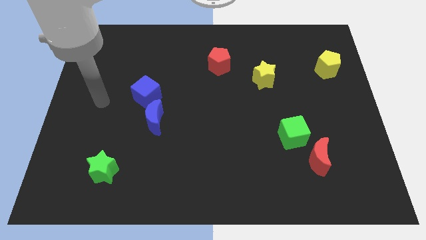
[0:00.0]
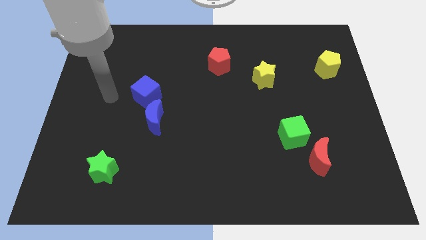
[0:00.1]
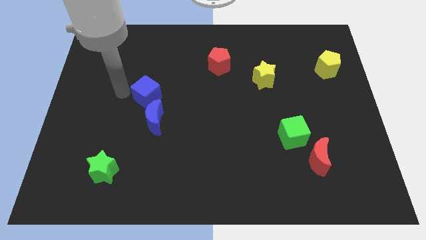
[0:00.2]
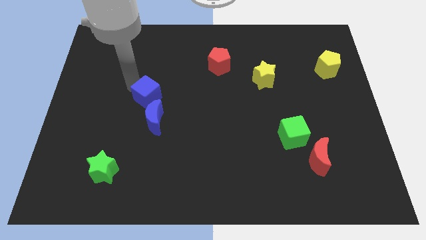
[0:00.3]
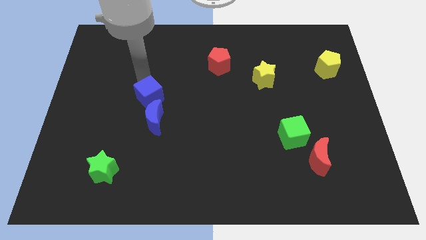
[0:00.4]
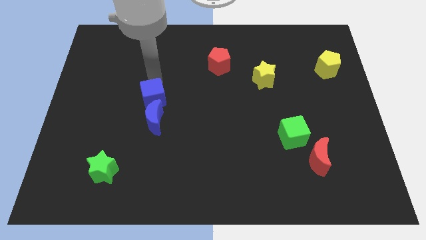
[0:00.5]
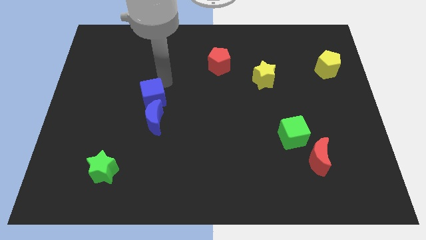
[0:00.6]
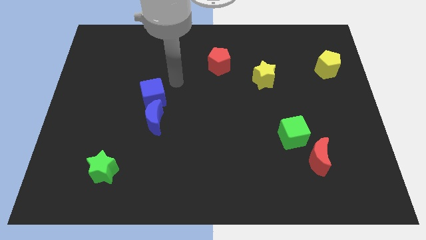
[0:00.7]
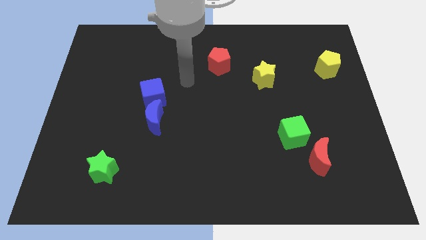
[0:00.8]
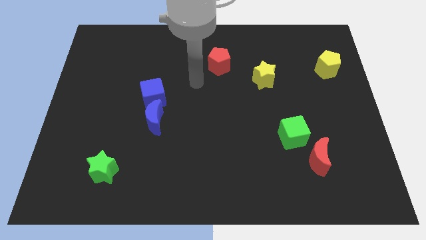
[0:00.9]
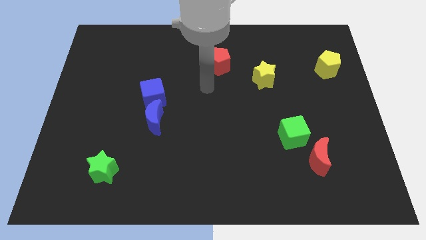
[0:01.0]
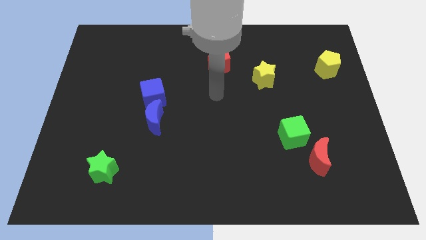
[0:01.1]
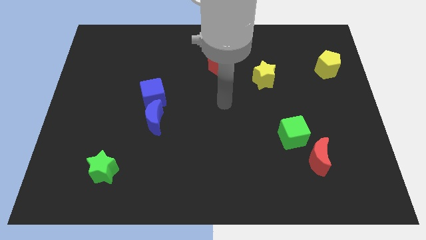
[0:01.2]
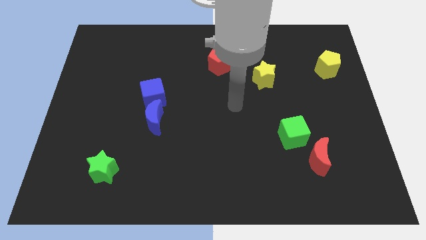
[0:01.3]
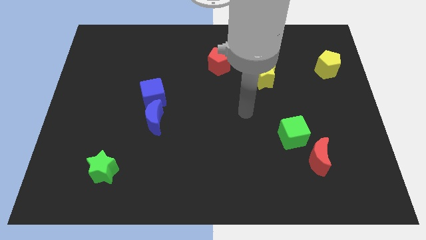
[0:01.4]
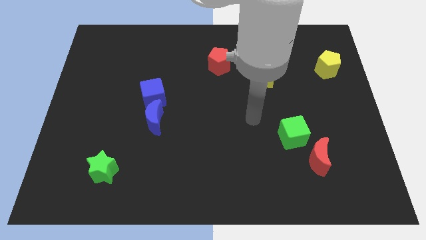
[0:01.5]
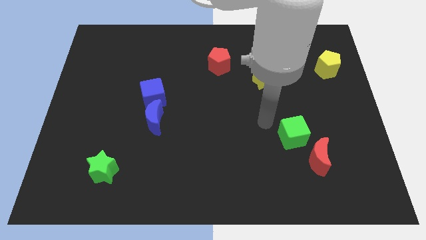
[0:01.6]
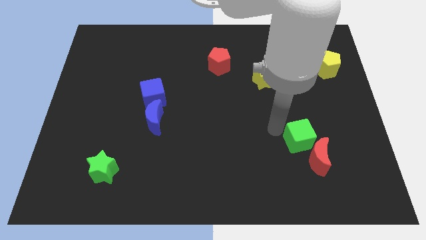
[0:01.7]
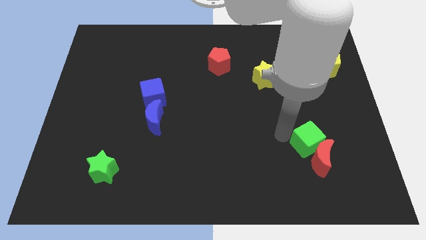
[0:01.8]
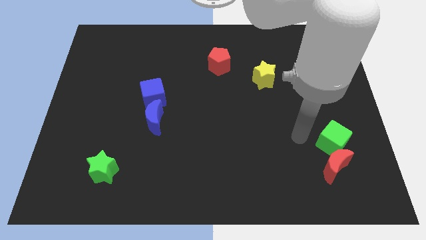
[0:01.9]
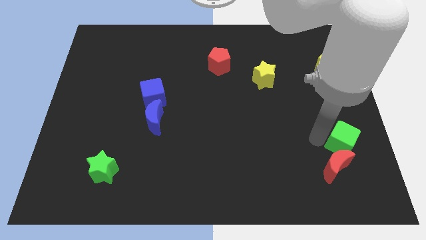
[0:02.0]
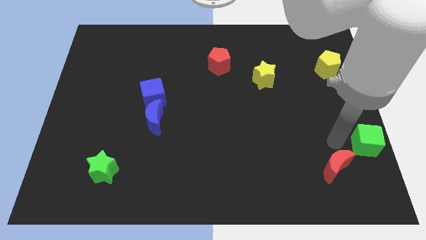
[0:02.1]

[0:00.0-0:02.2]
separate the red moon from the green cube

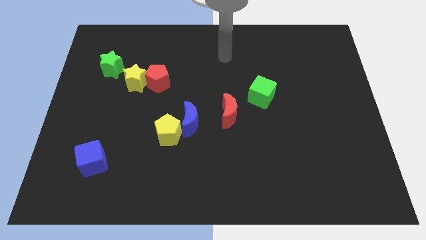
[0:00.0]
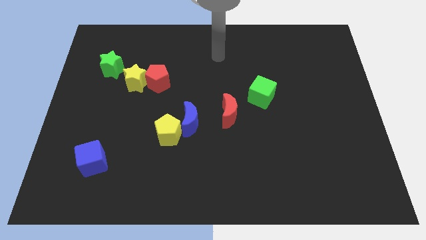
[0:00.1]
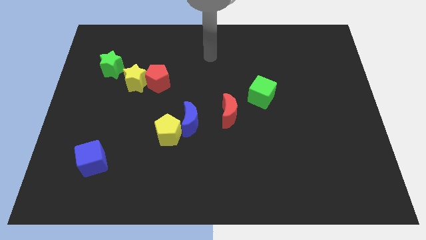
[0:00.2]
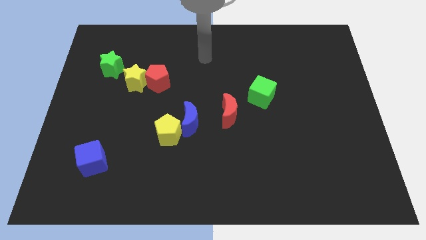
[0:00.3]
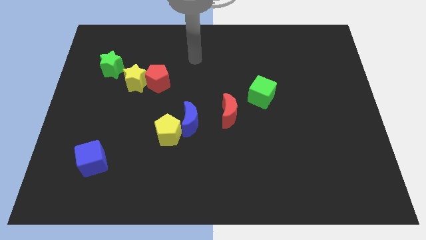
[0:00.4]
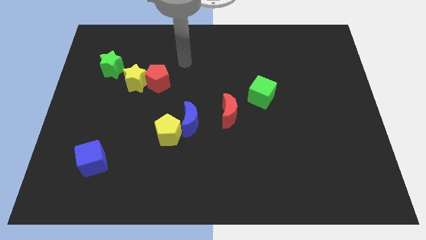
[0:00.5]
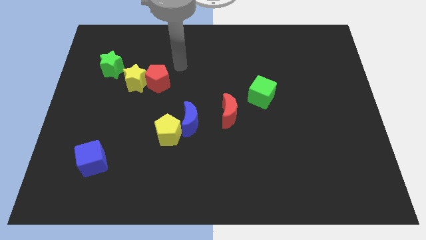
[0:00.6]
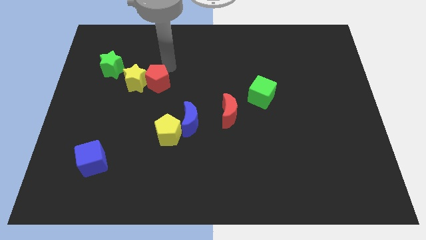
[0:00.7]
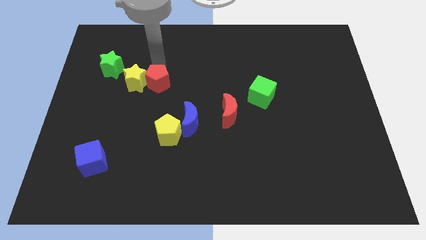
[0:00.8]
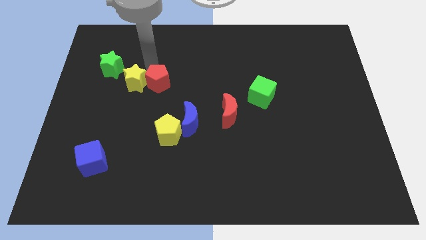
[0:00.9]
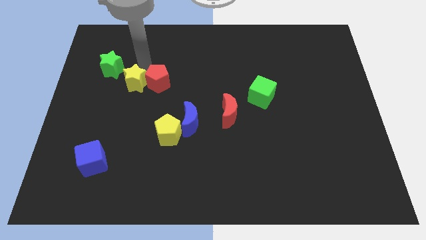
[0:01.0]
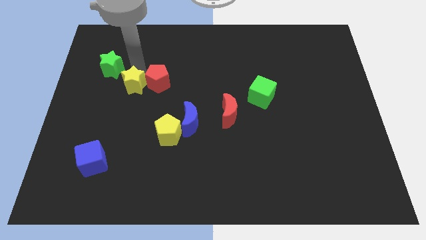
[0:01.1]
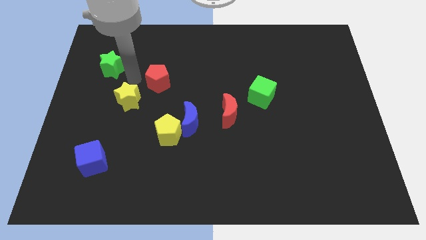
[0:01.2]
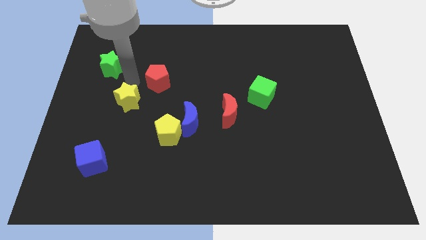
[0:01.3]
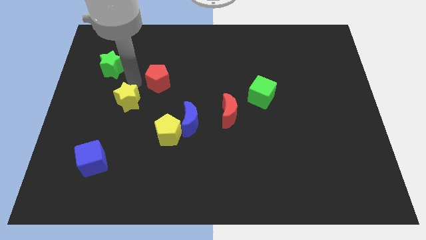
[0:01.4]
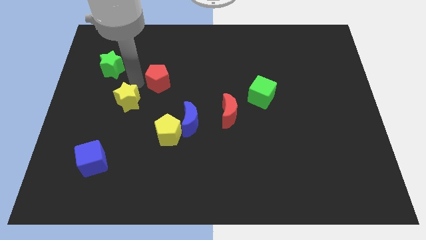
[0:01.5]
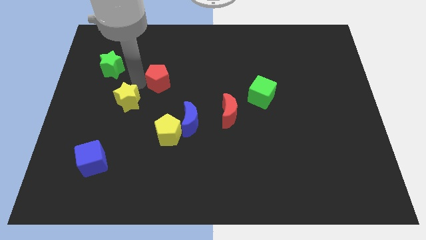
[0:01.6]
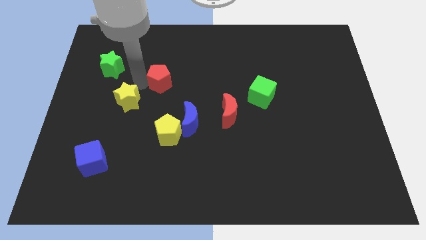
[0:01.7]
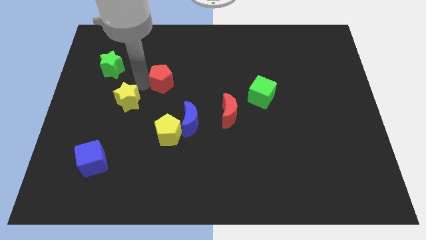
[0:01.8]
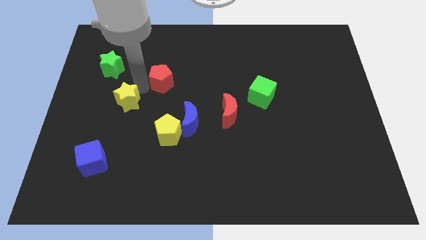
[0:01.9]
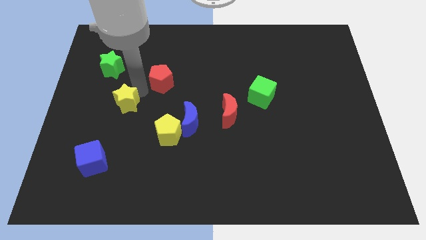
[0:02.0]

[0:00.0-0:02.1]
pull the red pentagon apart from the yellow star

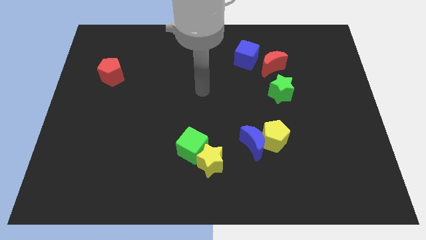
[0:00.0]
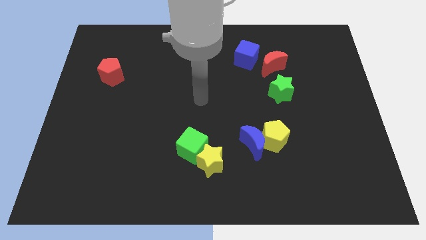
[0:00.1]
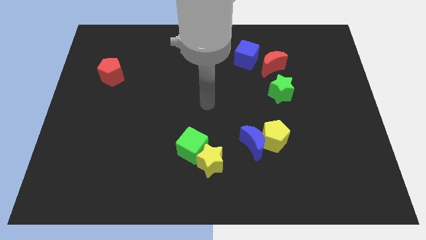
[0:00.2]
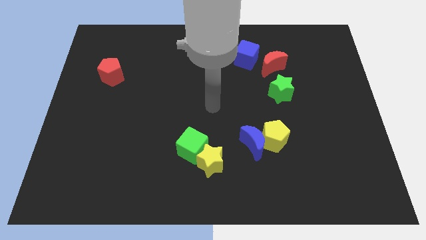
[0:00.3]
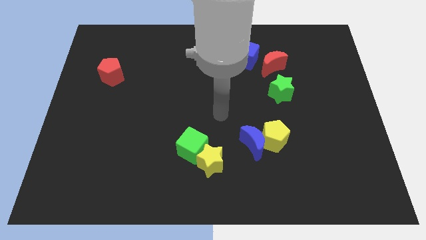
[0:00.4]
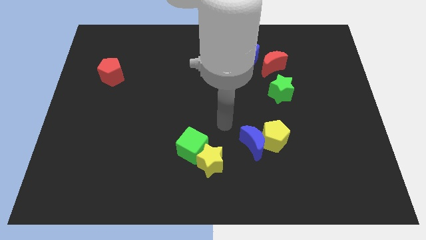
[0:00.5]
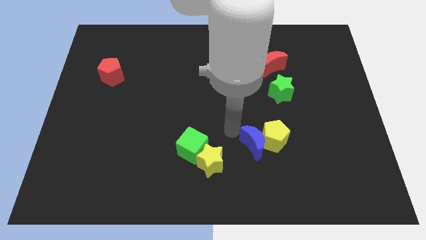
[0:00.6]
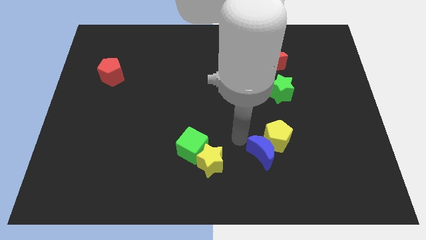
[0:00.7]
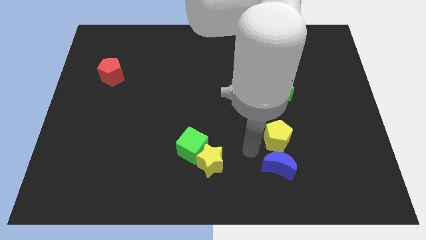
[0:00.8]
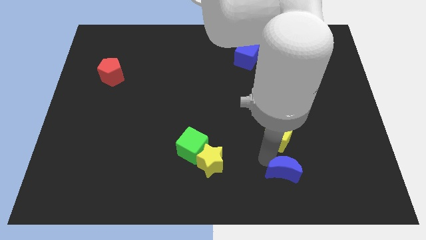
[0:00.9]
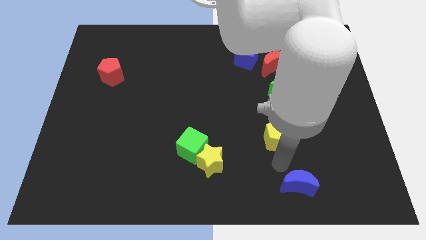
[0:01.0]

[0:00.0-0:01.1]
pull the yellow pentagon apart from the blue moon

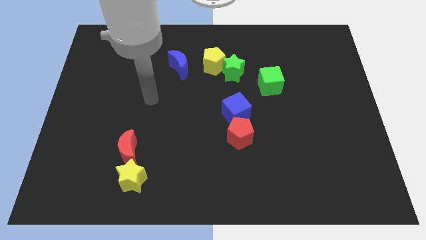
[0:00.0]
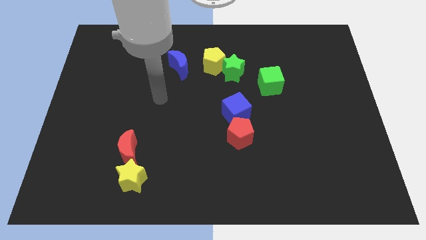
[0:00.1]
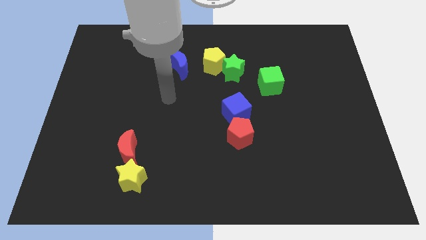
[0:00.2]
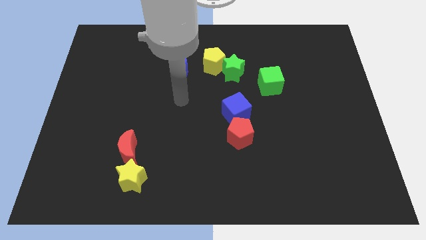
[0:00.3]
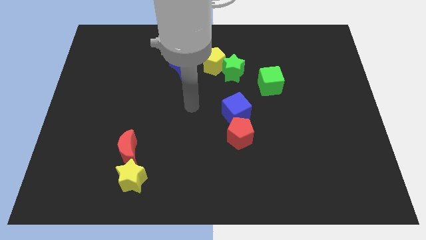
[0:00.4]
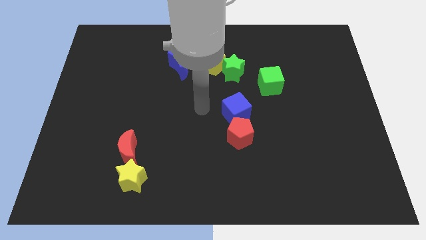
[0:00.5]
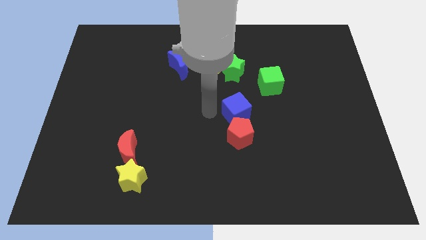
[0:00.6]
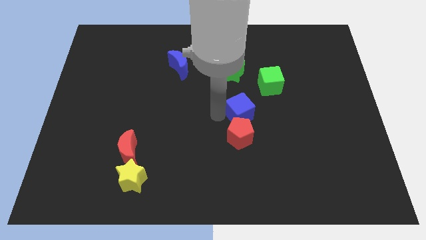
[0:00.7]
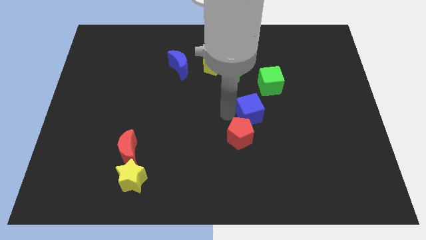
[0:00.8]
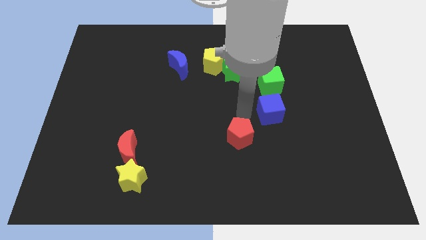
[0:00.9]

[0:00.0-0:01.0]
move the red pentagon away from the blue cube

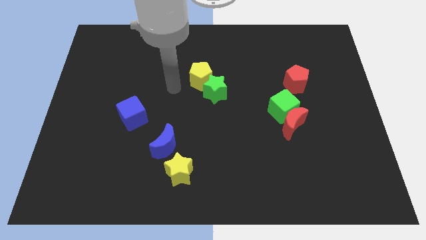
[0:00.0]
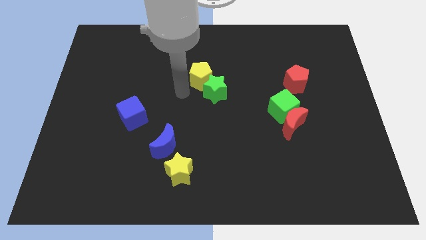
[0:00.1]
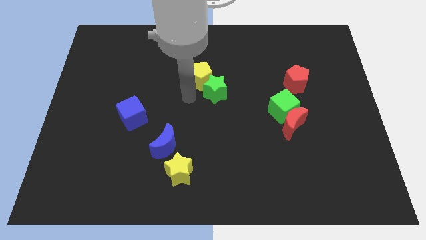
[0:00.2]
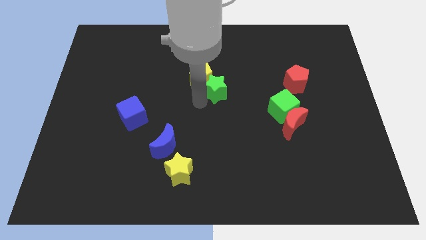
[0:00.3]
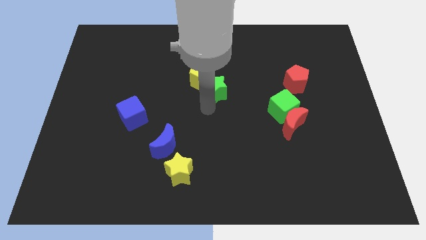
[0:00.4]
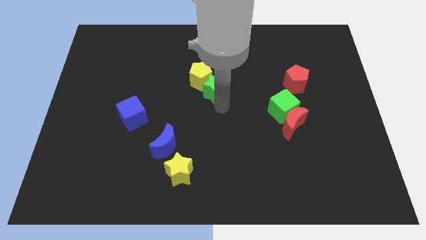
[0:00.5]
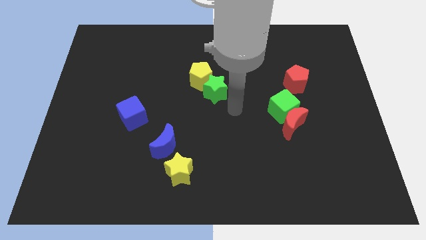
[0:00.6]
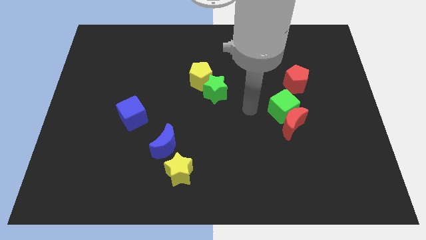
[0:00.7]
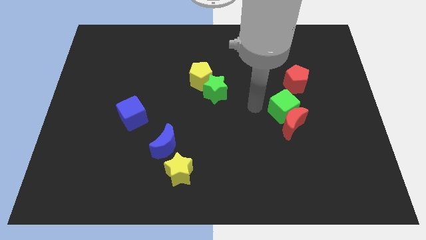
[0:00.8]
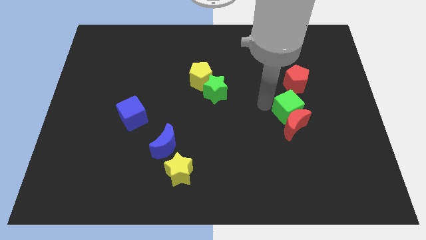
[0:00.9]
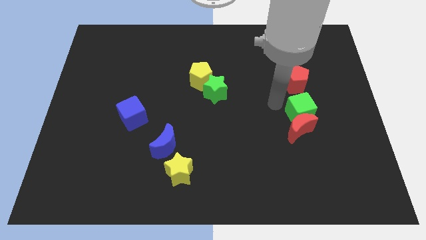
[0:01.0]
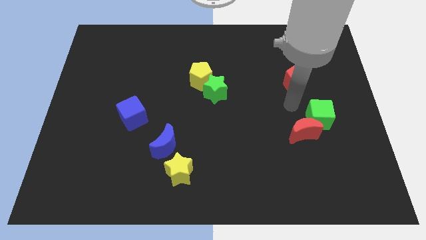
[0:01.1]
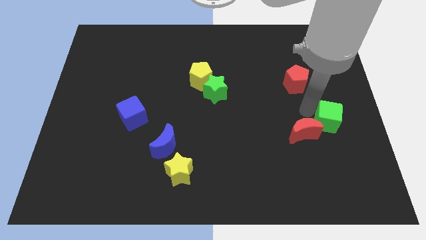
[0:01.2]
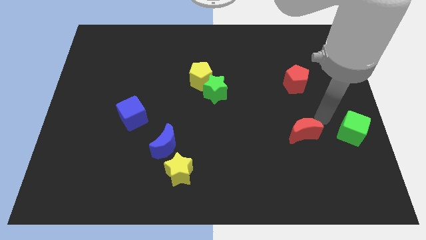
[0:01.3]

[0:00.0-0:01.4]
move the red moon away from the green cube

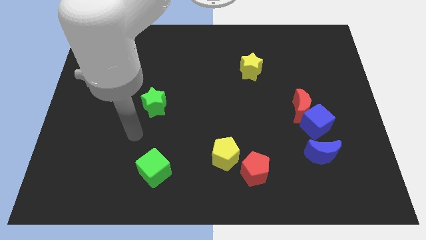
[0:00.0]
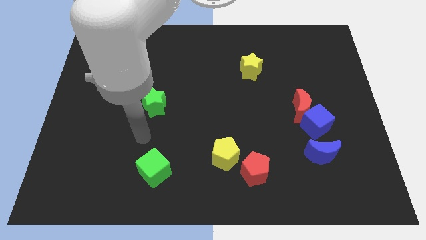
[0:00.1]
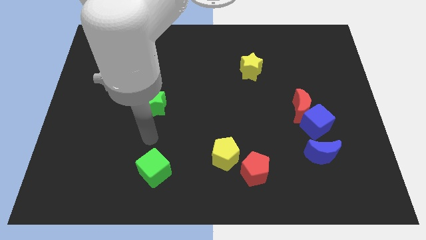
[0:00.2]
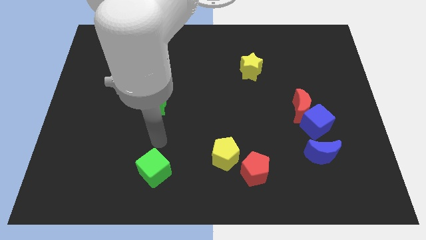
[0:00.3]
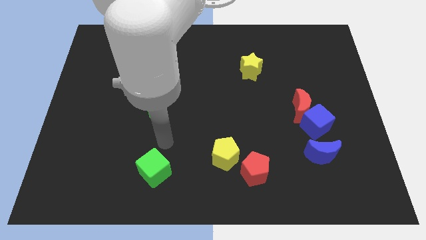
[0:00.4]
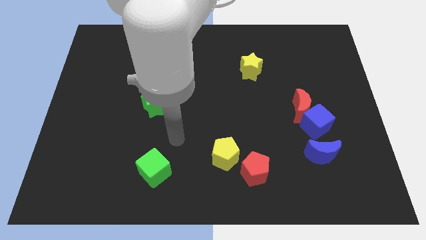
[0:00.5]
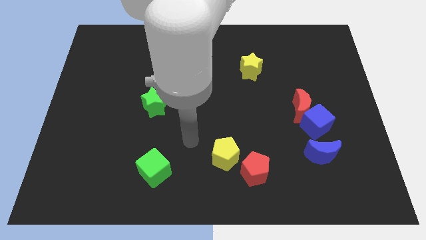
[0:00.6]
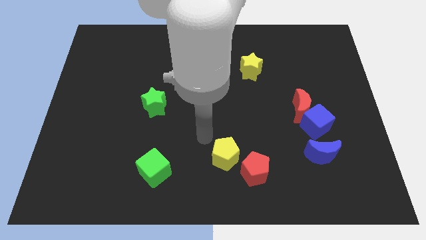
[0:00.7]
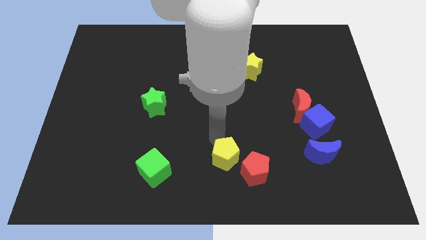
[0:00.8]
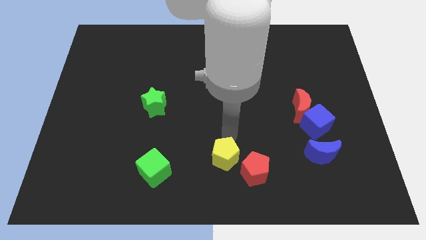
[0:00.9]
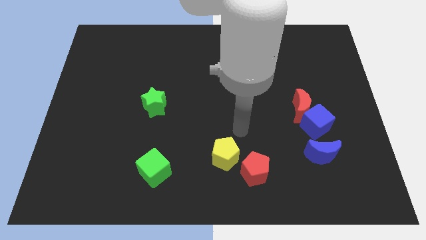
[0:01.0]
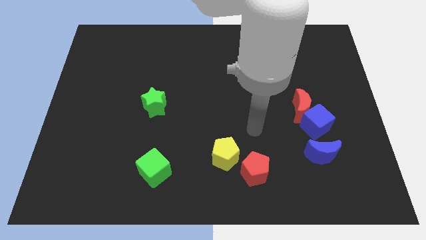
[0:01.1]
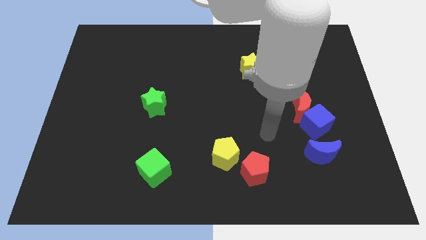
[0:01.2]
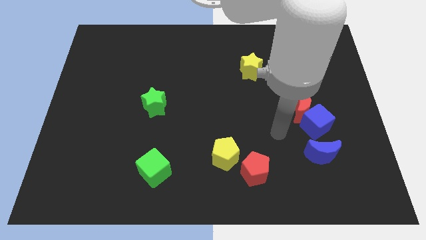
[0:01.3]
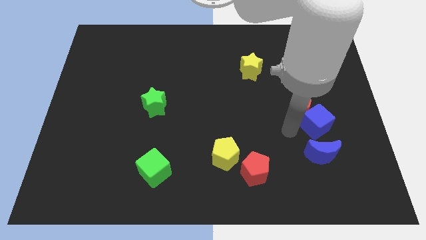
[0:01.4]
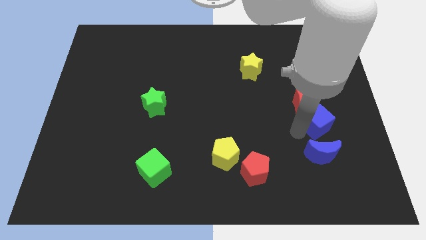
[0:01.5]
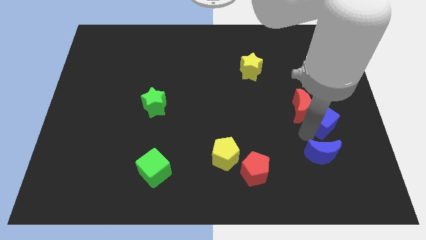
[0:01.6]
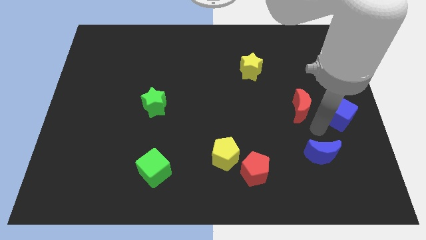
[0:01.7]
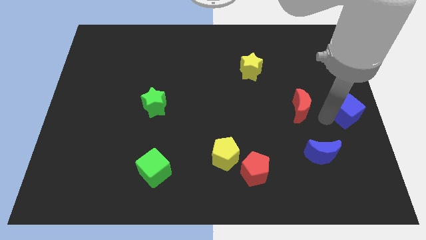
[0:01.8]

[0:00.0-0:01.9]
move the red moon away from the blue cube
